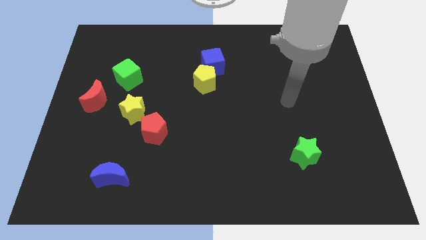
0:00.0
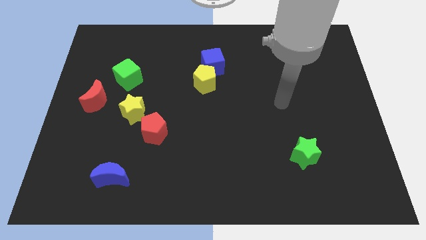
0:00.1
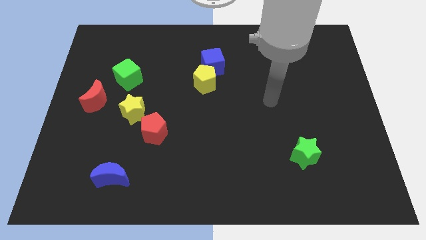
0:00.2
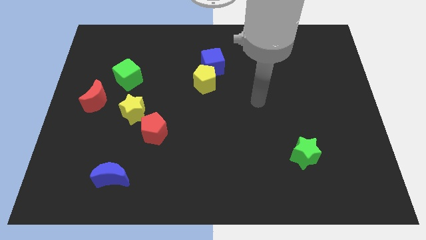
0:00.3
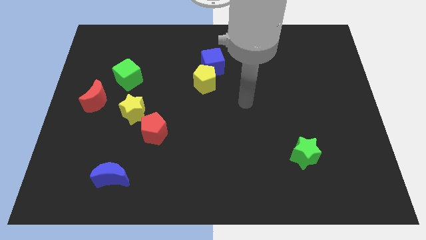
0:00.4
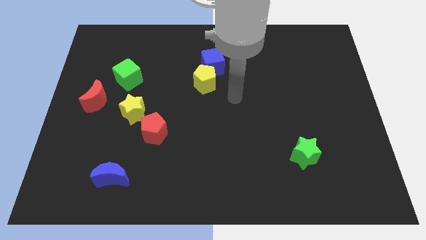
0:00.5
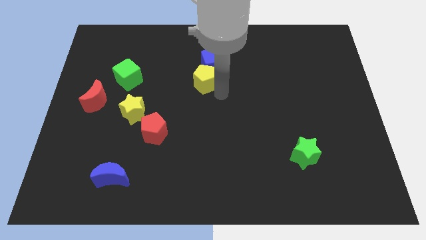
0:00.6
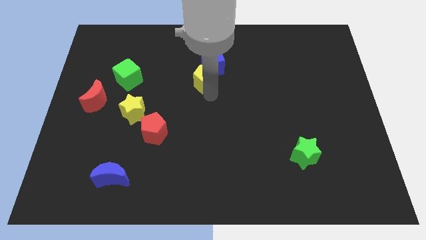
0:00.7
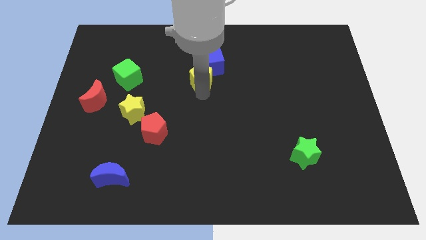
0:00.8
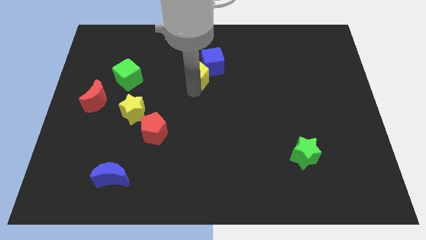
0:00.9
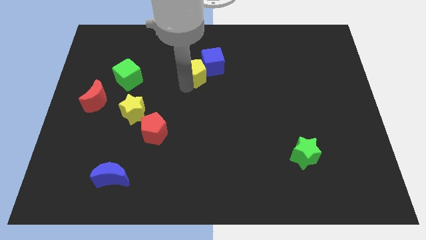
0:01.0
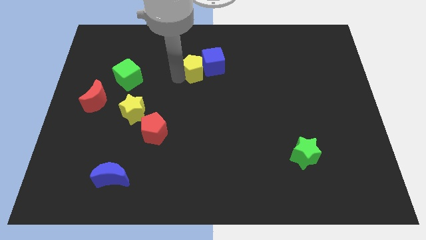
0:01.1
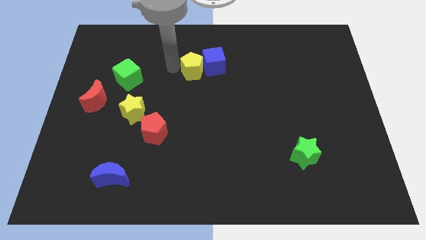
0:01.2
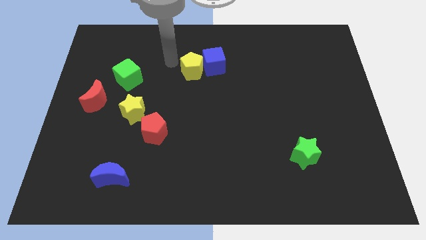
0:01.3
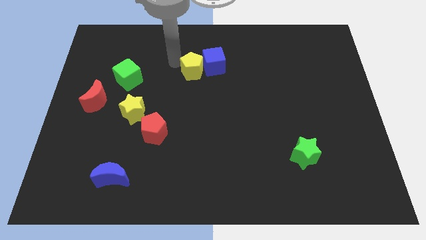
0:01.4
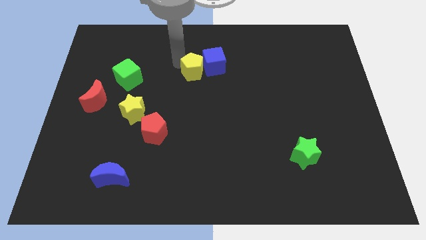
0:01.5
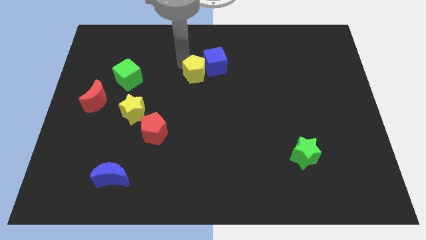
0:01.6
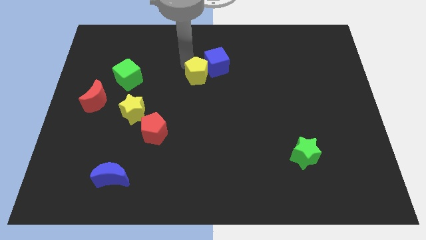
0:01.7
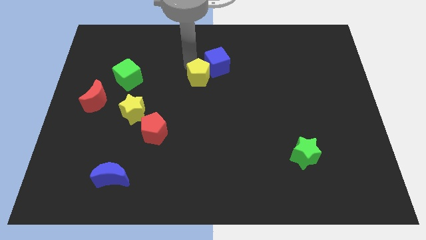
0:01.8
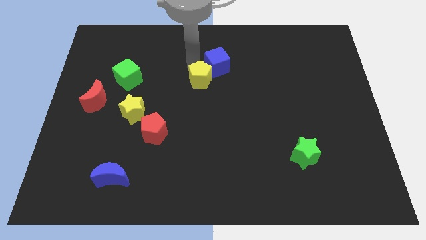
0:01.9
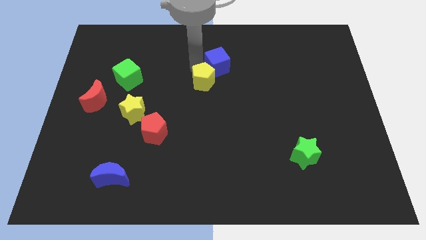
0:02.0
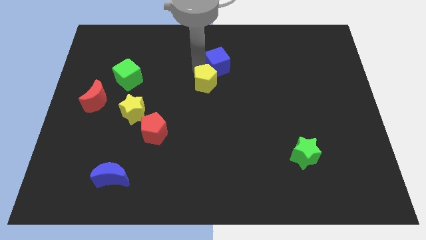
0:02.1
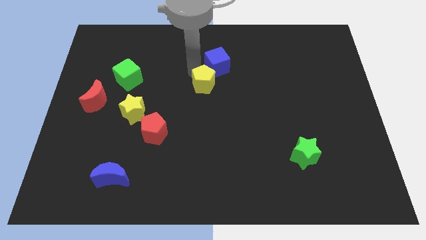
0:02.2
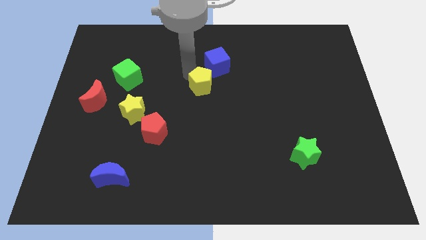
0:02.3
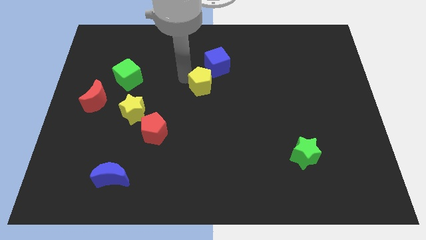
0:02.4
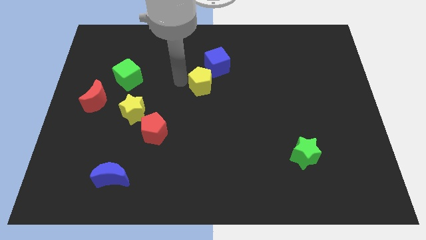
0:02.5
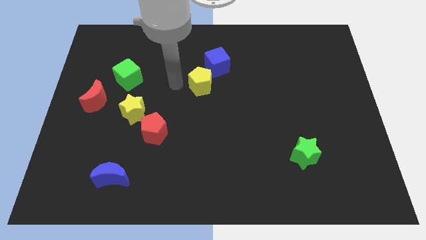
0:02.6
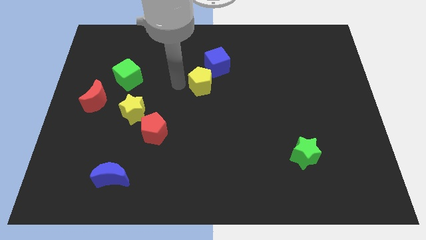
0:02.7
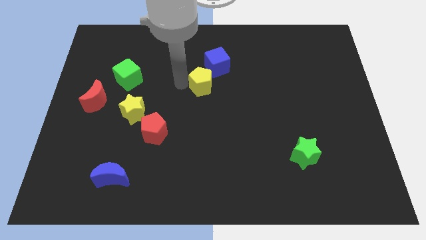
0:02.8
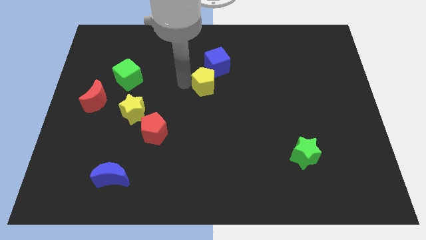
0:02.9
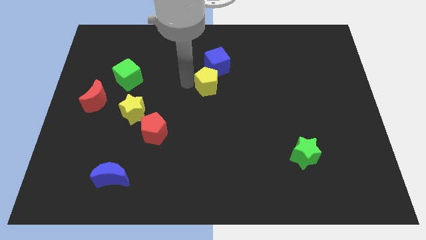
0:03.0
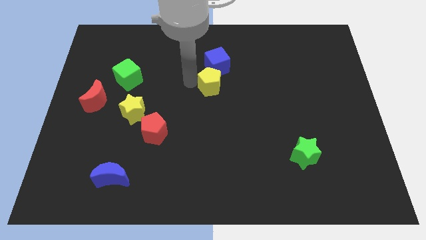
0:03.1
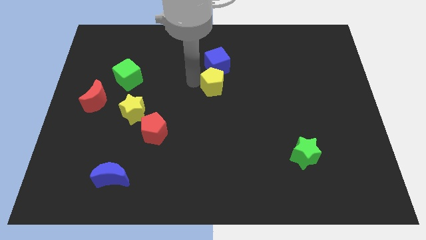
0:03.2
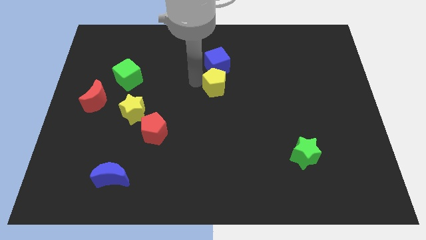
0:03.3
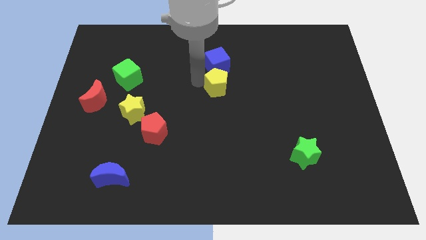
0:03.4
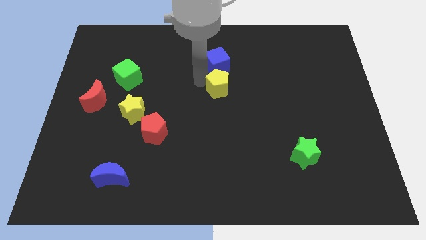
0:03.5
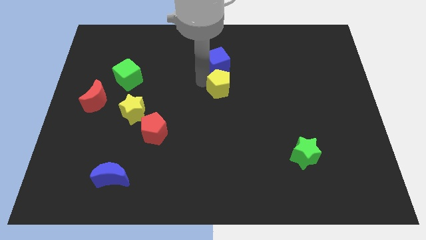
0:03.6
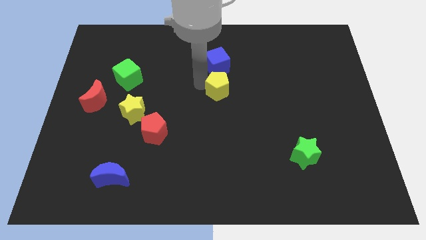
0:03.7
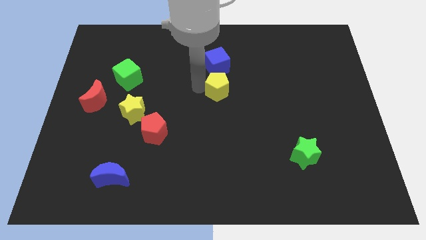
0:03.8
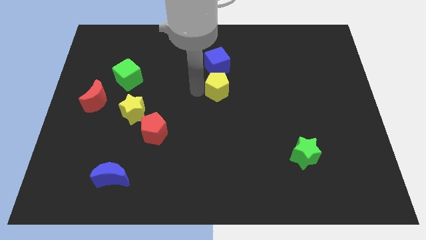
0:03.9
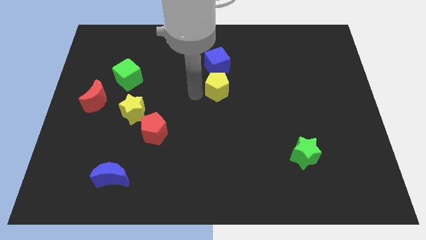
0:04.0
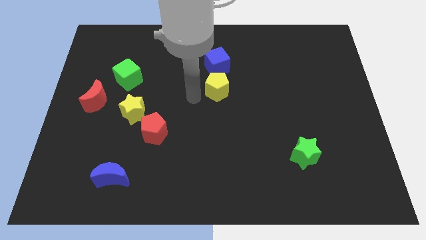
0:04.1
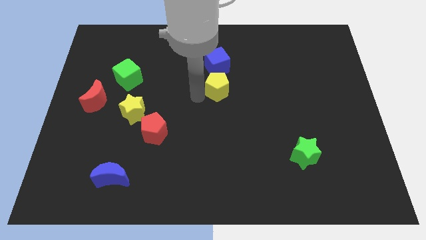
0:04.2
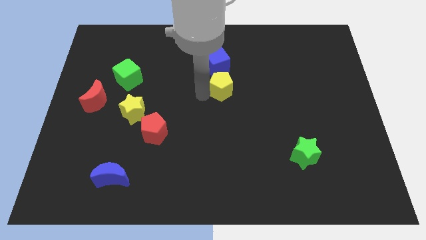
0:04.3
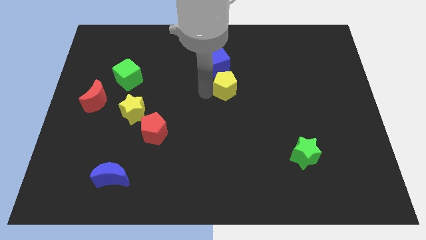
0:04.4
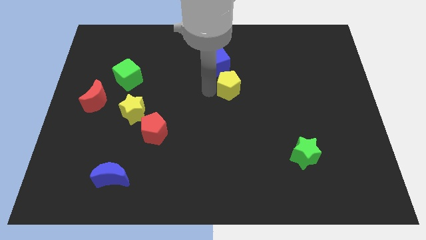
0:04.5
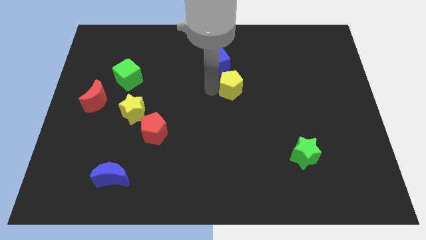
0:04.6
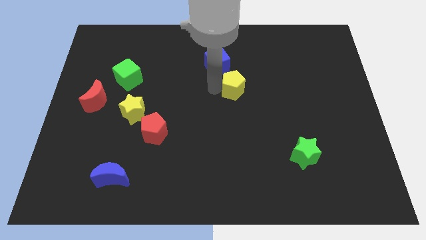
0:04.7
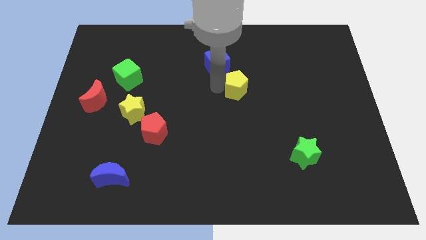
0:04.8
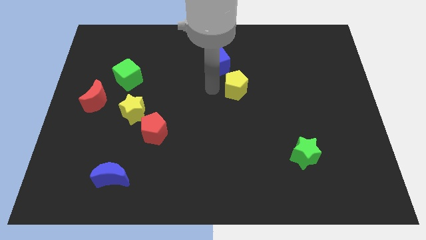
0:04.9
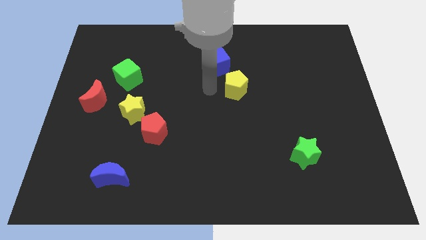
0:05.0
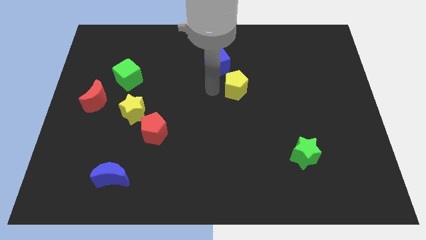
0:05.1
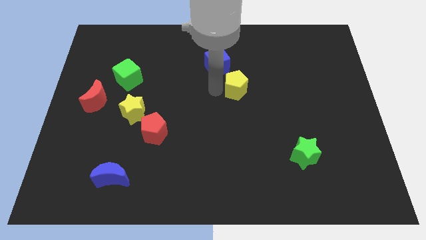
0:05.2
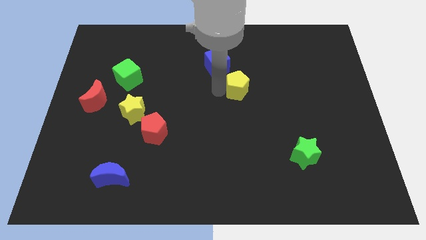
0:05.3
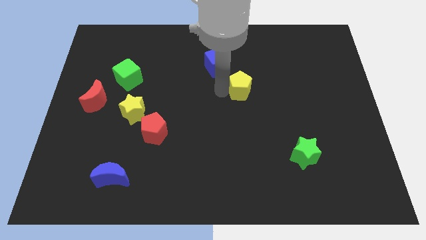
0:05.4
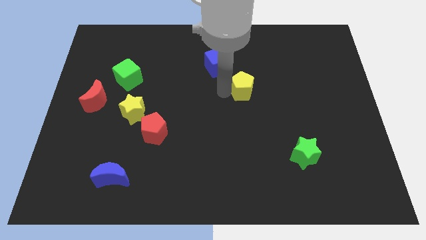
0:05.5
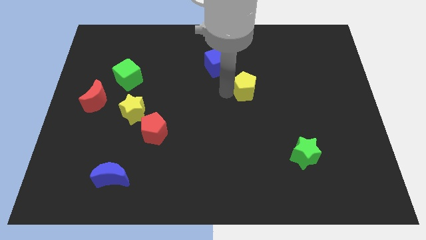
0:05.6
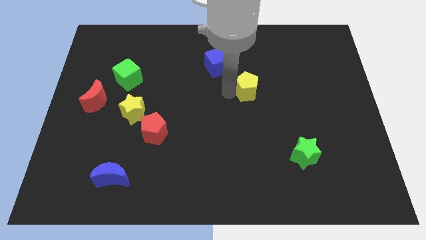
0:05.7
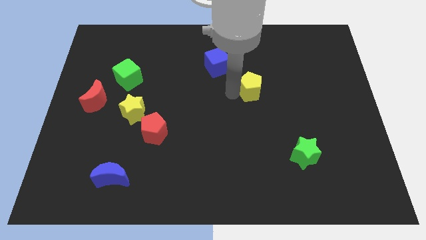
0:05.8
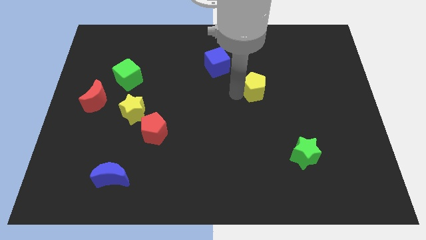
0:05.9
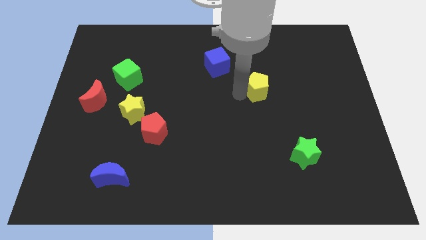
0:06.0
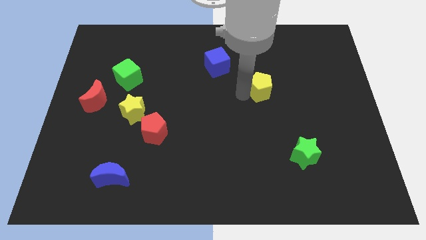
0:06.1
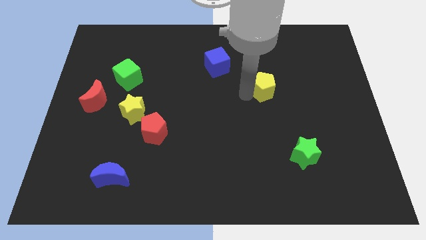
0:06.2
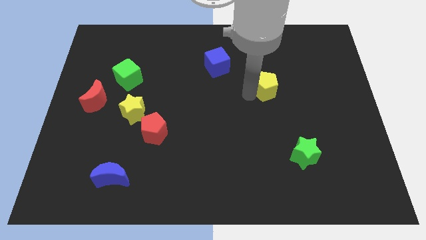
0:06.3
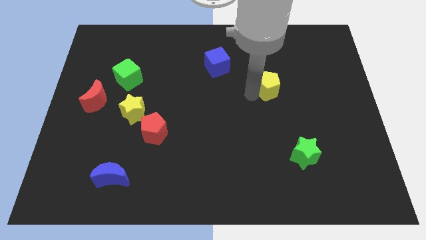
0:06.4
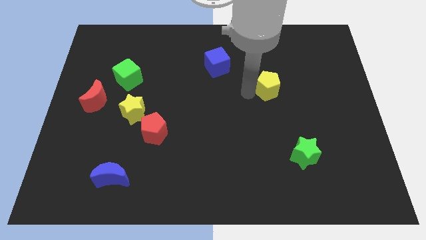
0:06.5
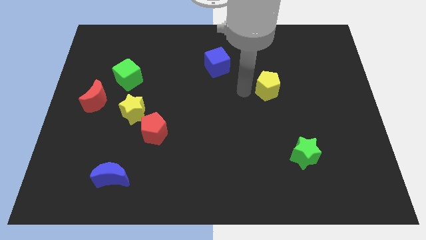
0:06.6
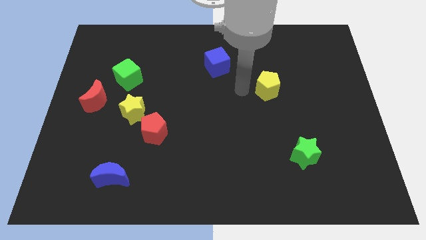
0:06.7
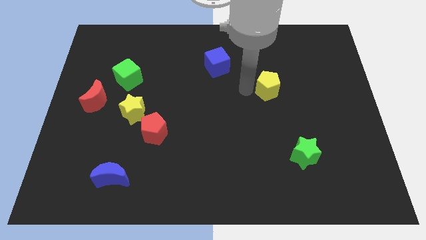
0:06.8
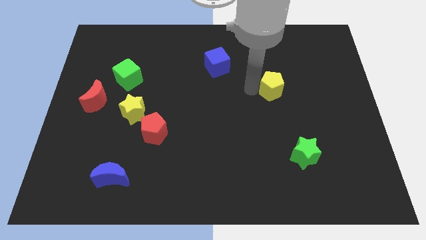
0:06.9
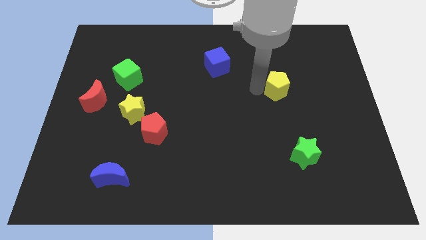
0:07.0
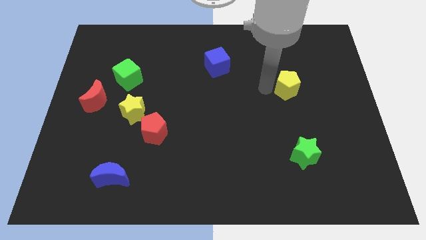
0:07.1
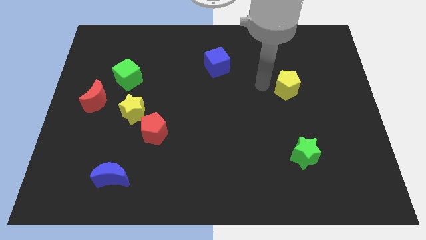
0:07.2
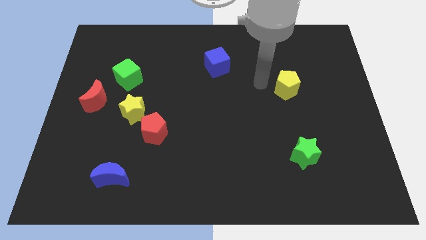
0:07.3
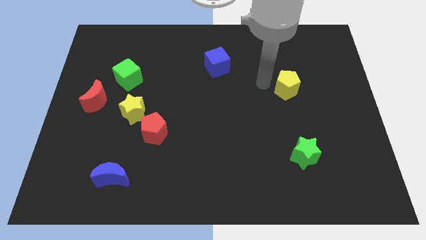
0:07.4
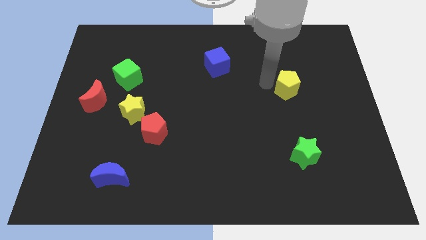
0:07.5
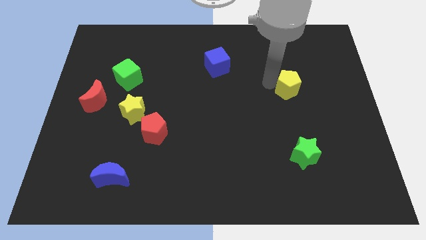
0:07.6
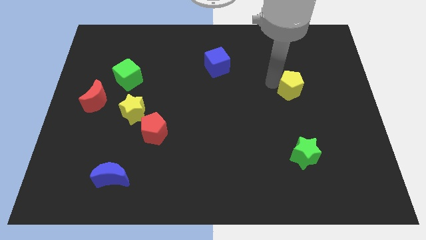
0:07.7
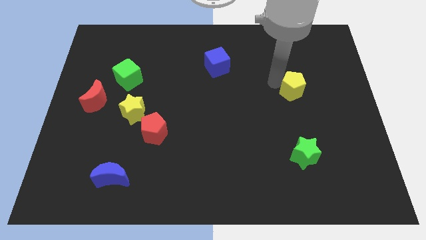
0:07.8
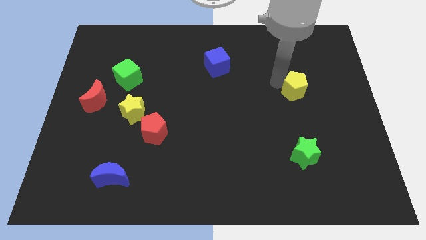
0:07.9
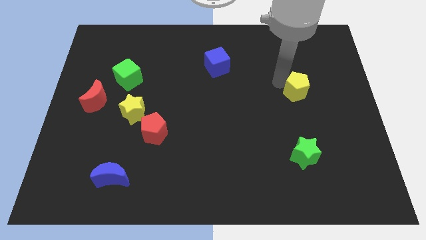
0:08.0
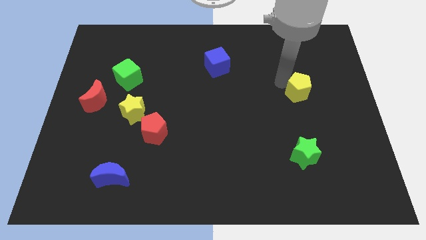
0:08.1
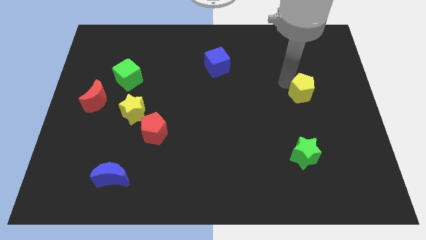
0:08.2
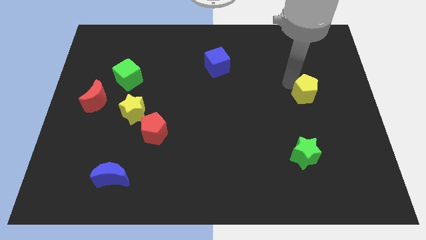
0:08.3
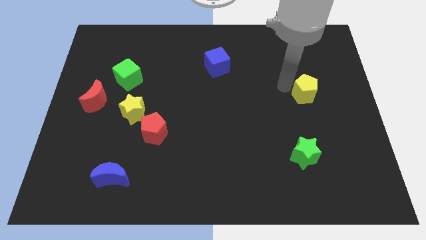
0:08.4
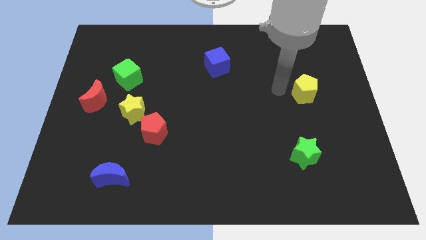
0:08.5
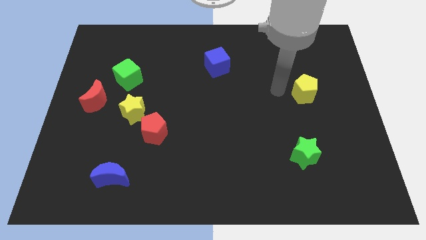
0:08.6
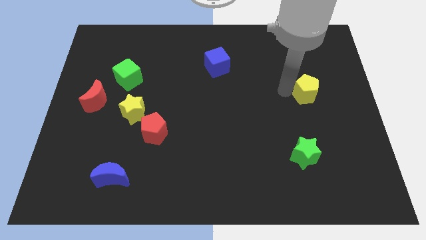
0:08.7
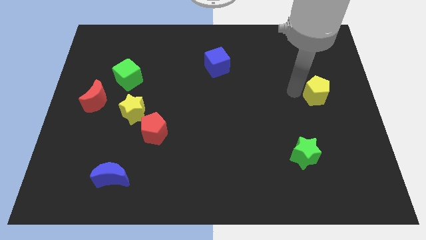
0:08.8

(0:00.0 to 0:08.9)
slide the yellow pentagon to the right side
